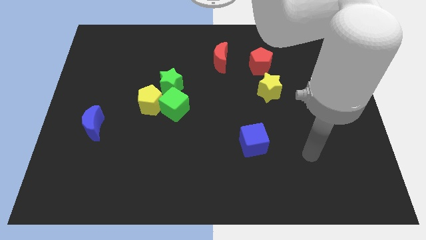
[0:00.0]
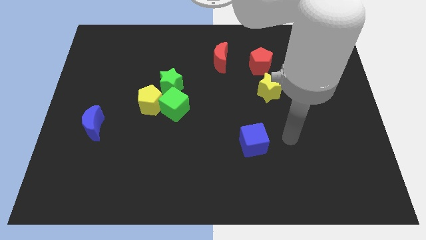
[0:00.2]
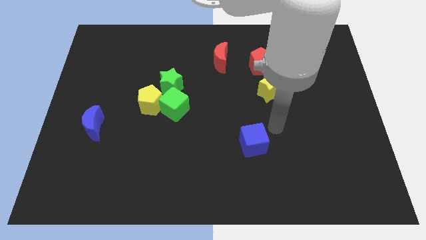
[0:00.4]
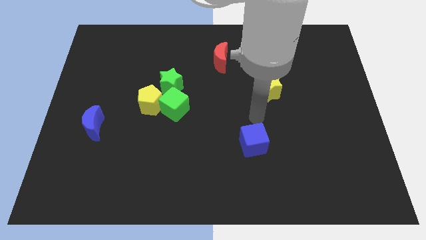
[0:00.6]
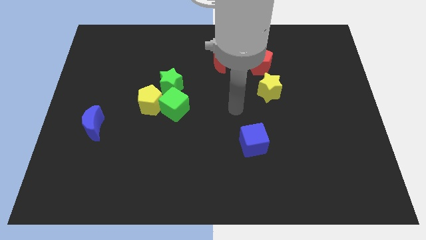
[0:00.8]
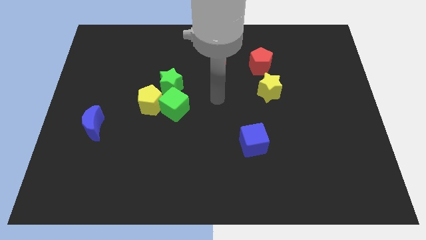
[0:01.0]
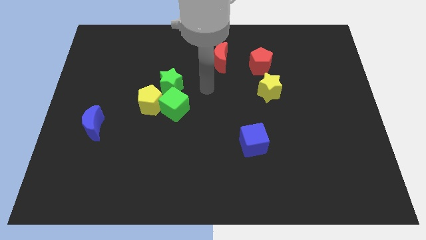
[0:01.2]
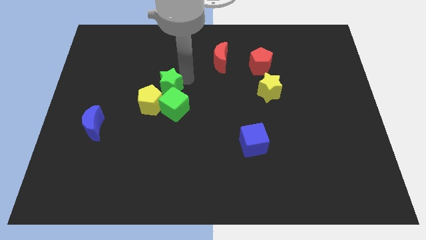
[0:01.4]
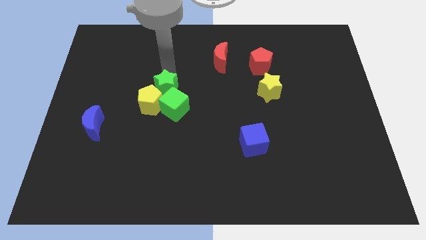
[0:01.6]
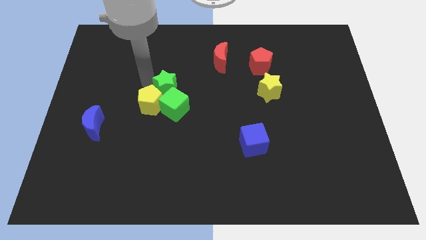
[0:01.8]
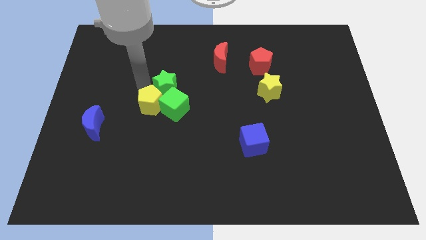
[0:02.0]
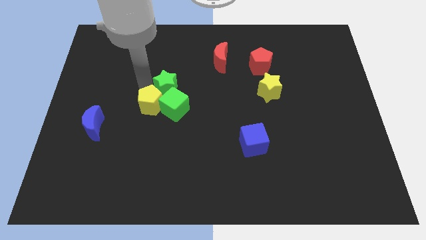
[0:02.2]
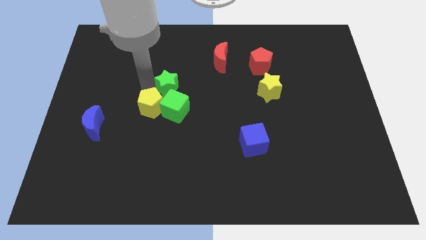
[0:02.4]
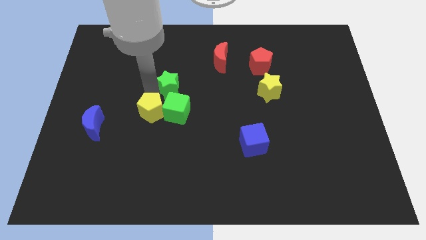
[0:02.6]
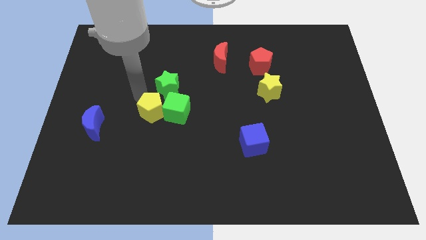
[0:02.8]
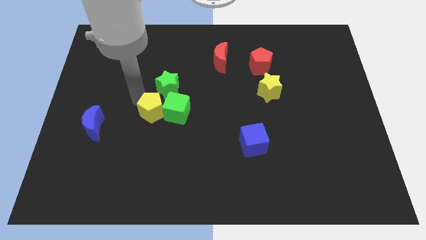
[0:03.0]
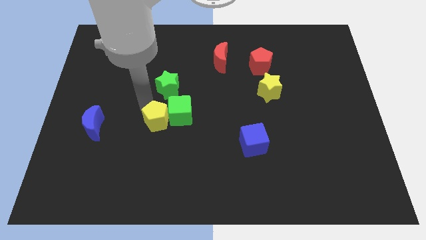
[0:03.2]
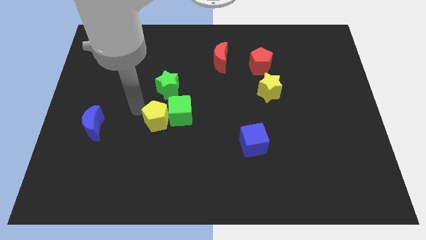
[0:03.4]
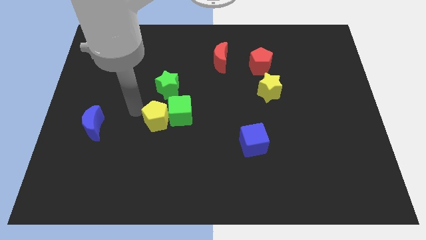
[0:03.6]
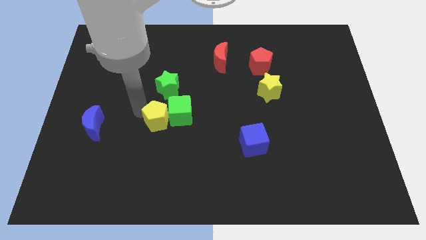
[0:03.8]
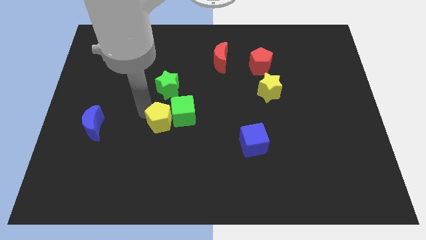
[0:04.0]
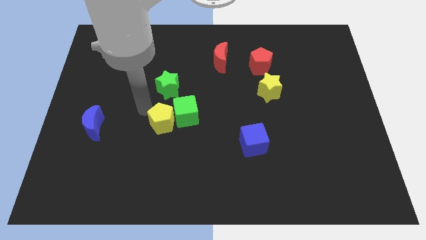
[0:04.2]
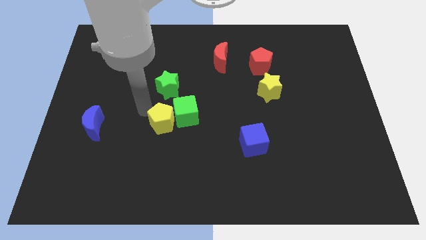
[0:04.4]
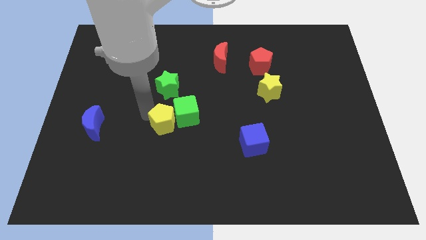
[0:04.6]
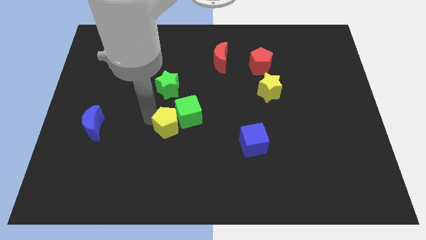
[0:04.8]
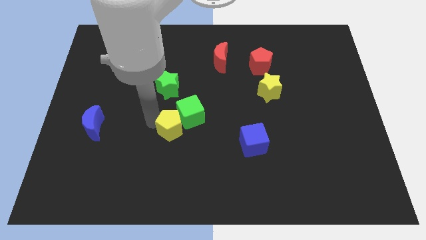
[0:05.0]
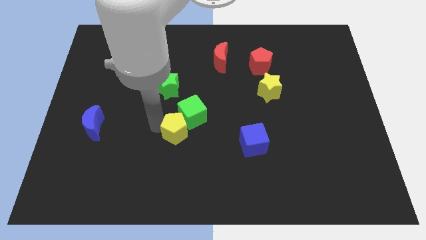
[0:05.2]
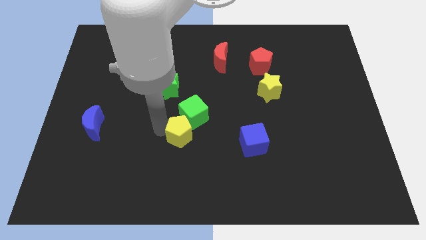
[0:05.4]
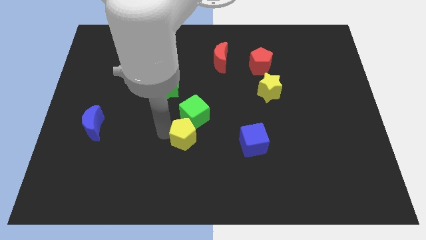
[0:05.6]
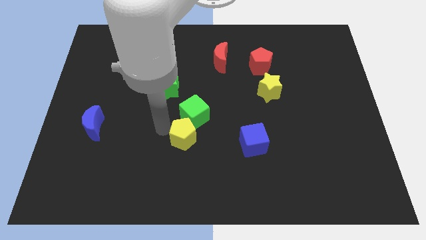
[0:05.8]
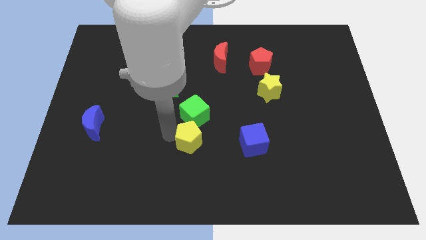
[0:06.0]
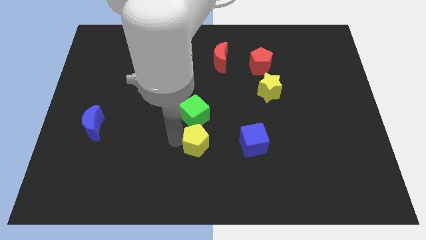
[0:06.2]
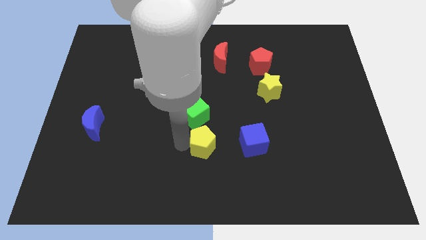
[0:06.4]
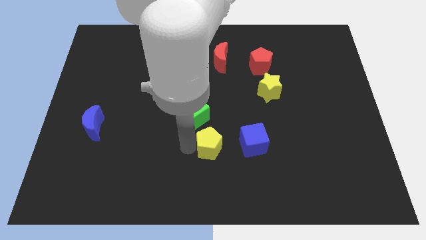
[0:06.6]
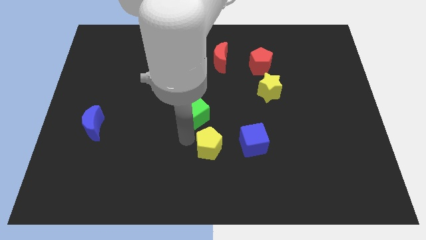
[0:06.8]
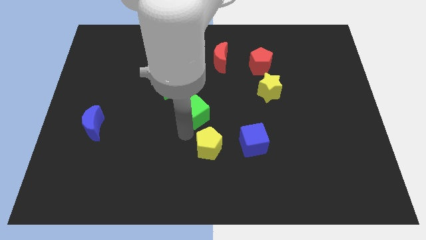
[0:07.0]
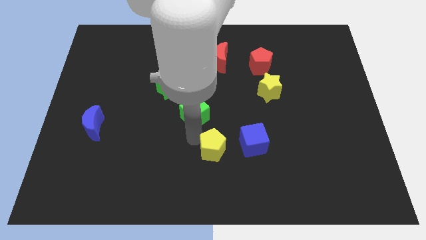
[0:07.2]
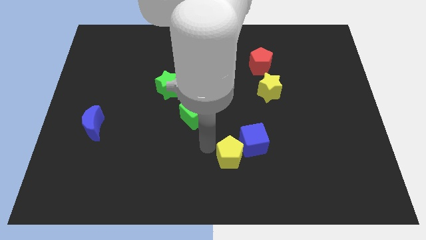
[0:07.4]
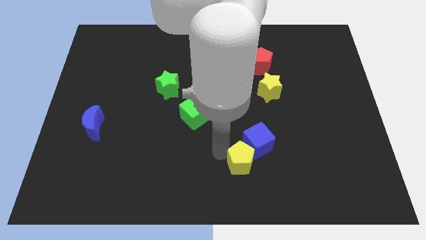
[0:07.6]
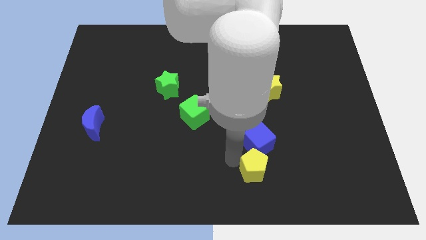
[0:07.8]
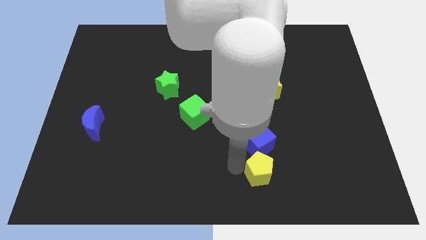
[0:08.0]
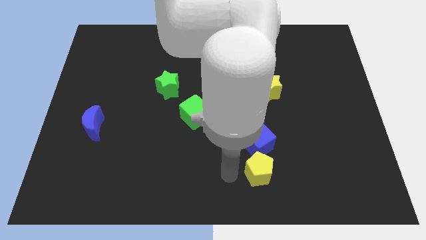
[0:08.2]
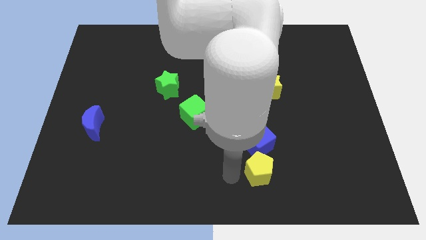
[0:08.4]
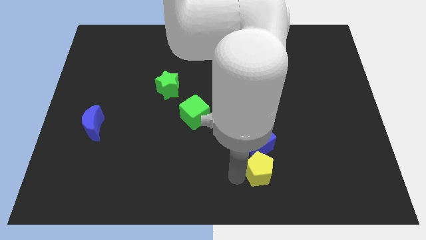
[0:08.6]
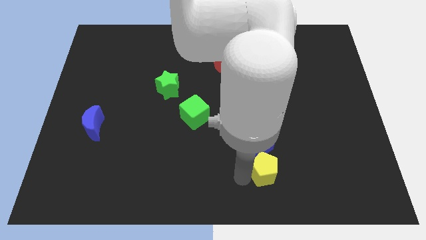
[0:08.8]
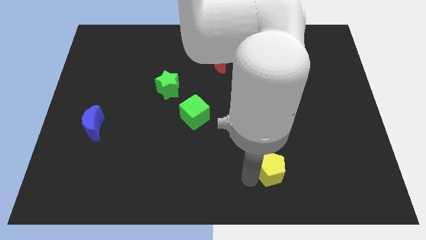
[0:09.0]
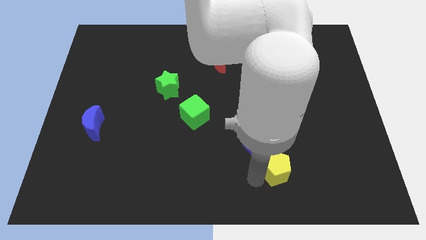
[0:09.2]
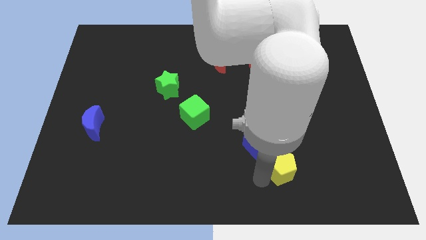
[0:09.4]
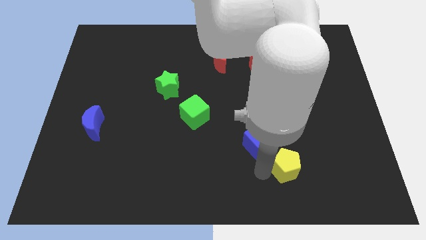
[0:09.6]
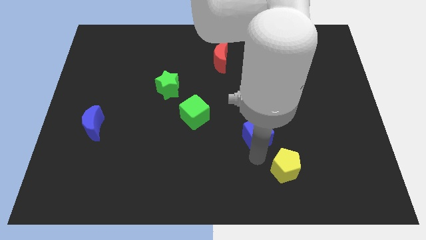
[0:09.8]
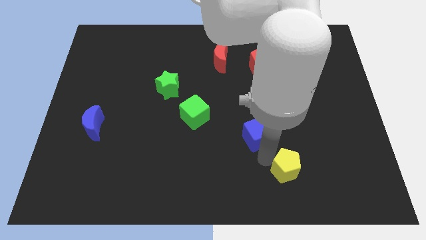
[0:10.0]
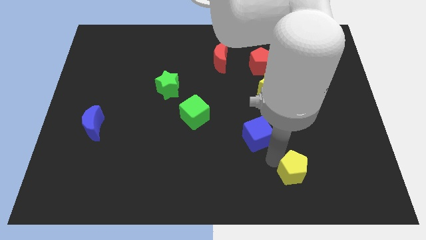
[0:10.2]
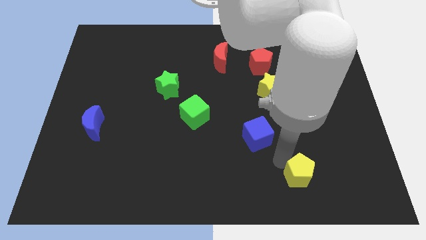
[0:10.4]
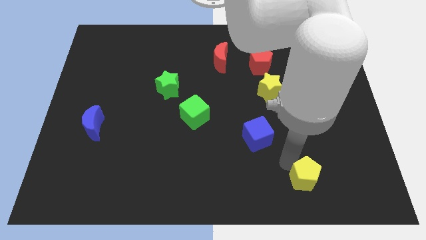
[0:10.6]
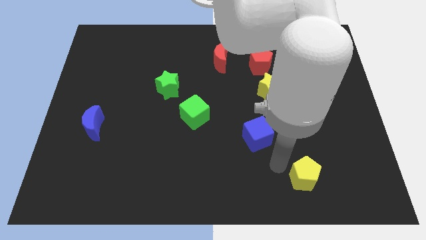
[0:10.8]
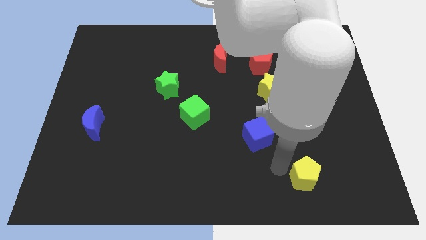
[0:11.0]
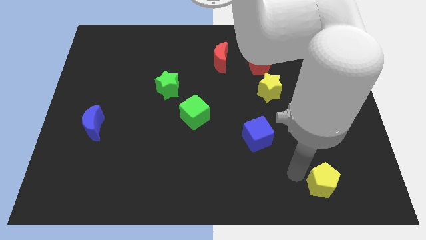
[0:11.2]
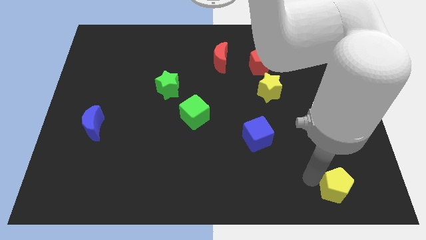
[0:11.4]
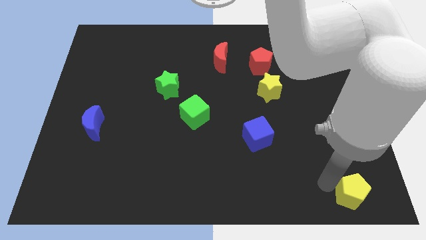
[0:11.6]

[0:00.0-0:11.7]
move the yellow pentagon to the lower right corner

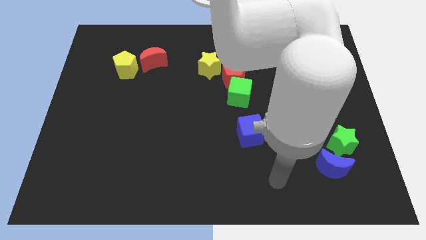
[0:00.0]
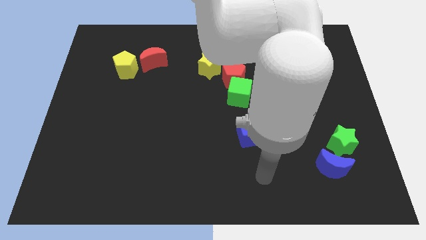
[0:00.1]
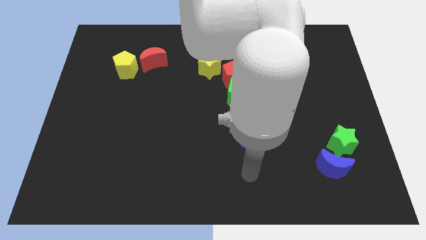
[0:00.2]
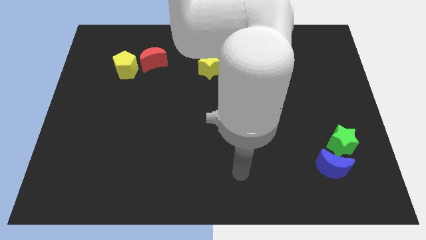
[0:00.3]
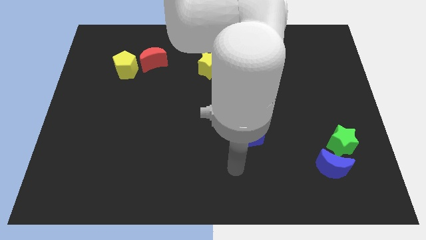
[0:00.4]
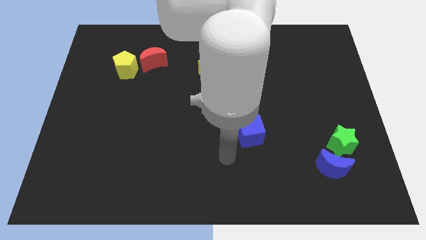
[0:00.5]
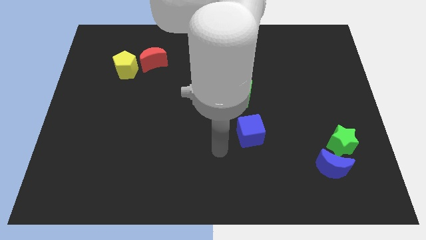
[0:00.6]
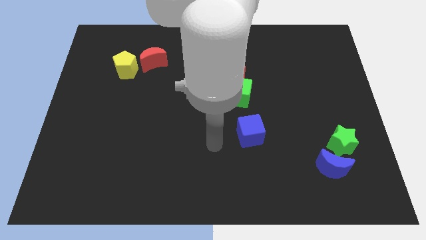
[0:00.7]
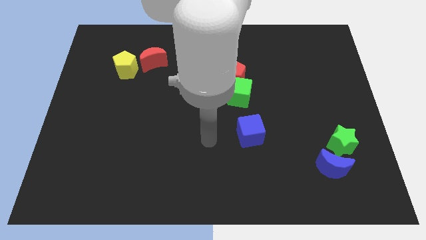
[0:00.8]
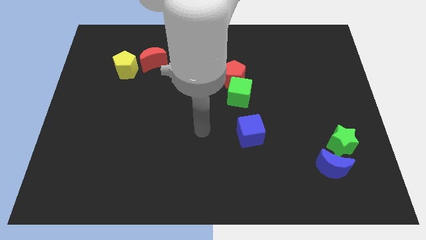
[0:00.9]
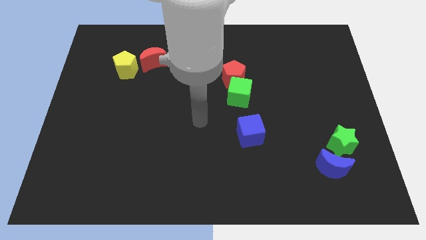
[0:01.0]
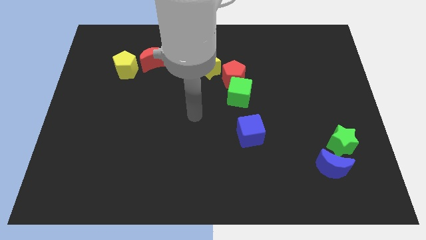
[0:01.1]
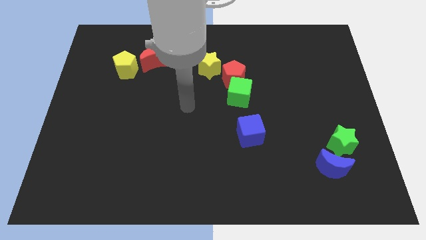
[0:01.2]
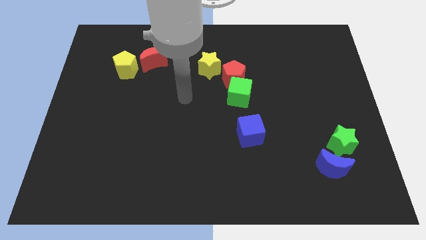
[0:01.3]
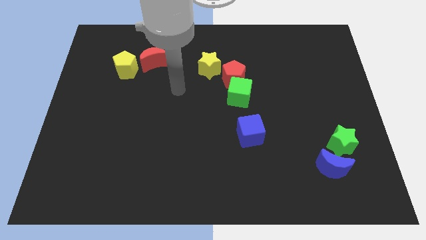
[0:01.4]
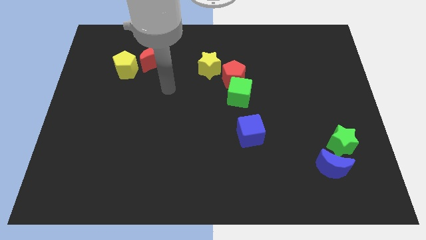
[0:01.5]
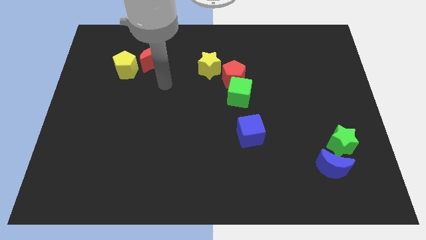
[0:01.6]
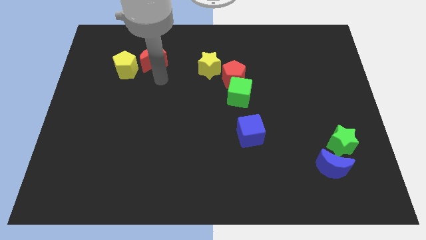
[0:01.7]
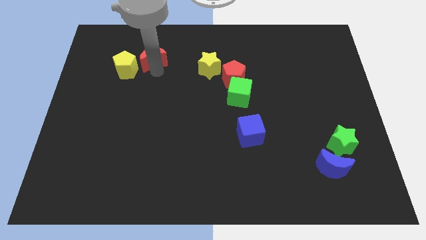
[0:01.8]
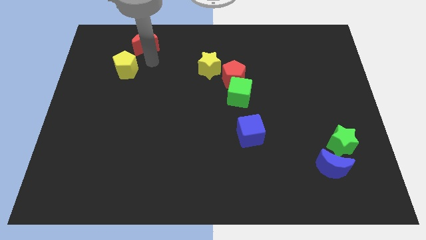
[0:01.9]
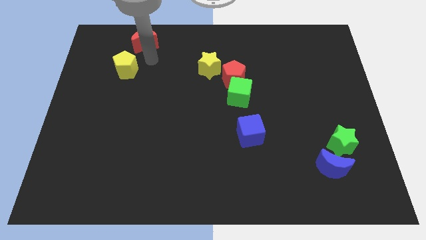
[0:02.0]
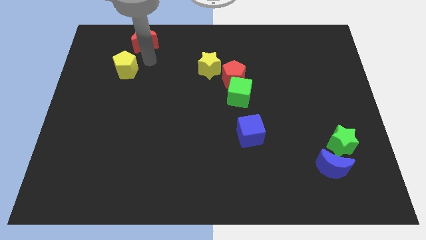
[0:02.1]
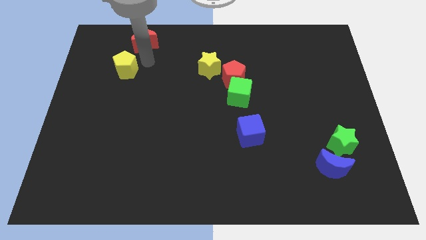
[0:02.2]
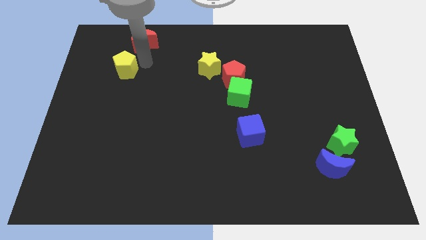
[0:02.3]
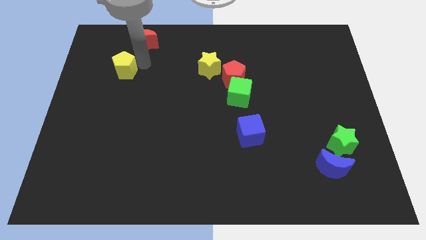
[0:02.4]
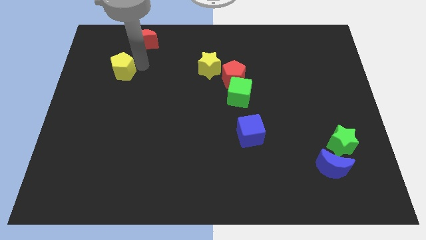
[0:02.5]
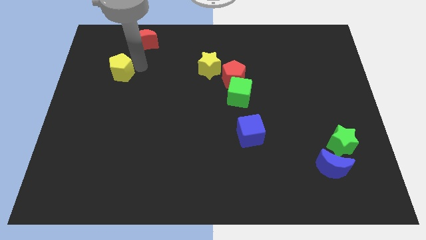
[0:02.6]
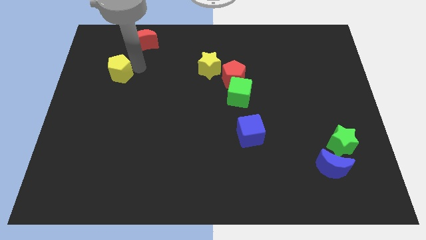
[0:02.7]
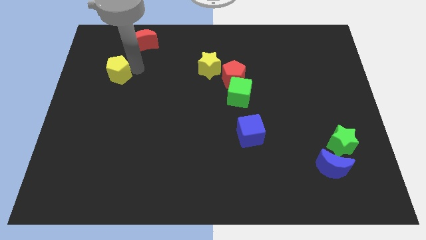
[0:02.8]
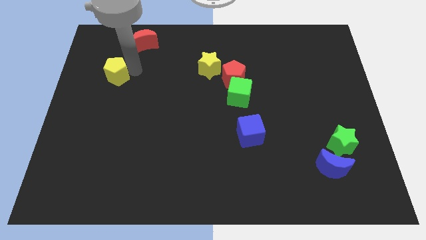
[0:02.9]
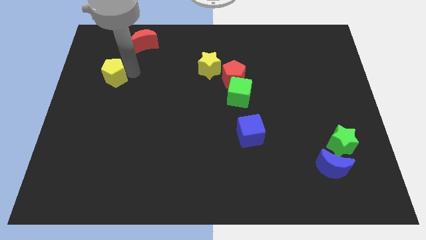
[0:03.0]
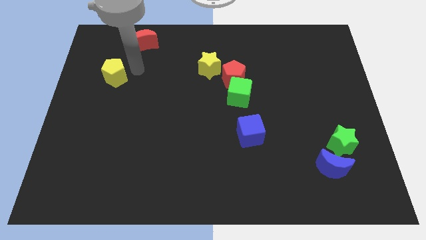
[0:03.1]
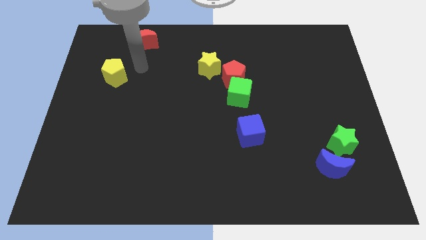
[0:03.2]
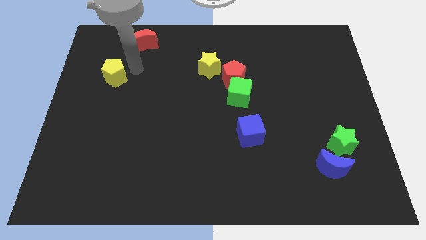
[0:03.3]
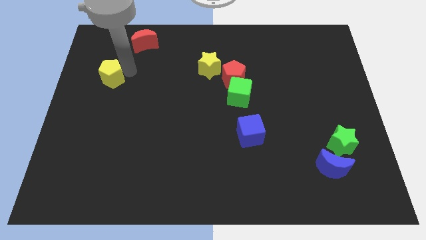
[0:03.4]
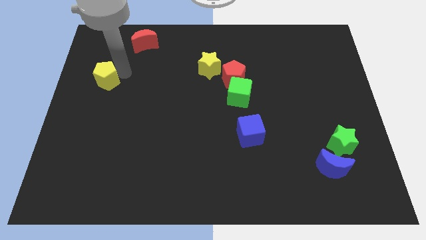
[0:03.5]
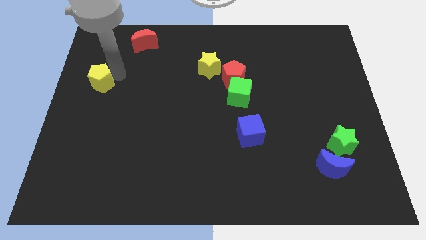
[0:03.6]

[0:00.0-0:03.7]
move the yellow pentagon to the left side of the board
